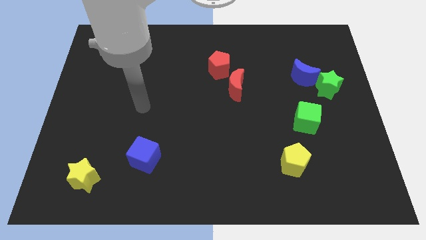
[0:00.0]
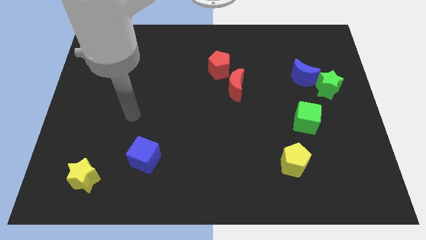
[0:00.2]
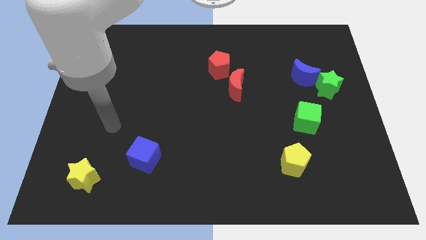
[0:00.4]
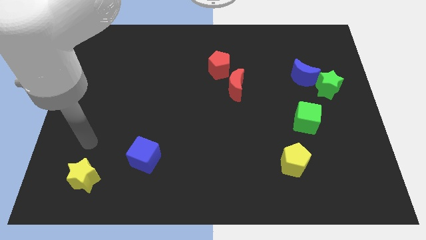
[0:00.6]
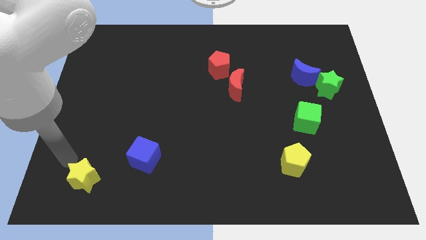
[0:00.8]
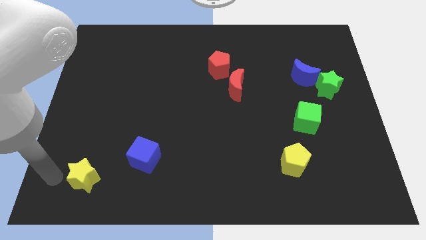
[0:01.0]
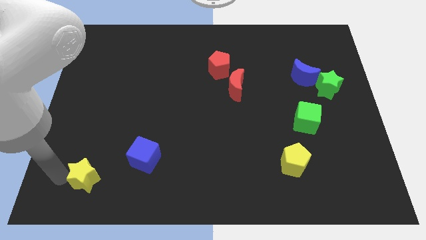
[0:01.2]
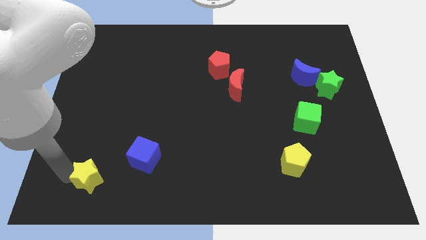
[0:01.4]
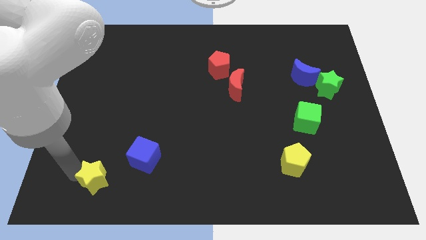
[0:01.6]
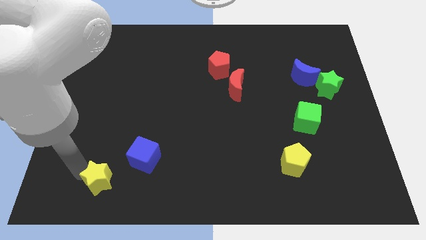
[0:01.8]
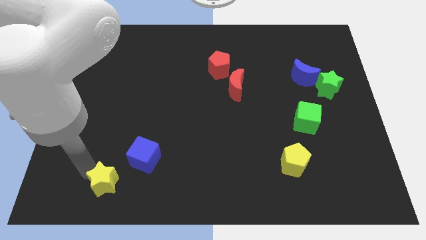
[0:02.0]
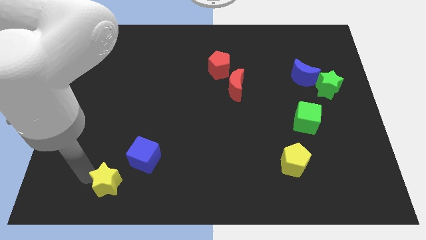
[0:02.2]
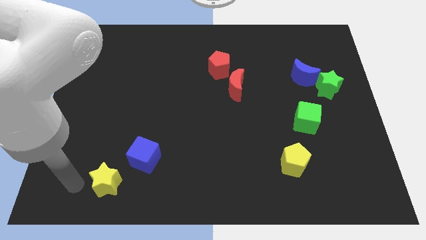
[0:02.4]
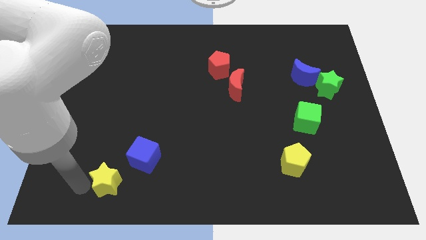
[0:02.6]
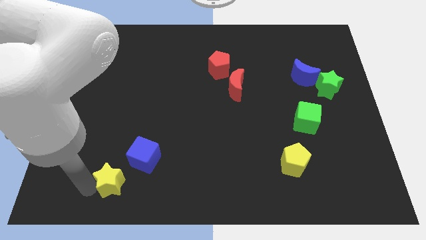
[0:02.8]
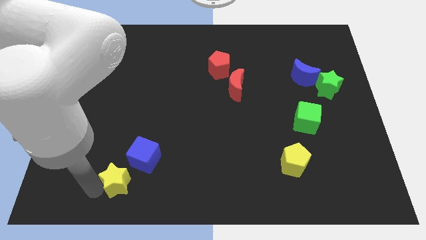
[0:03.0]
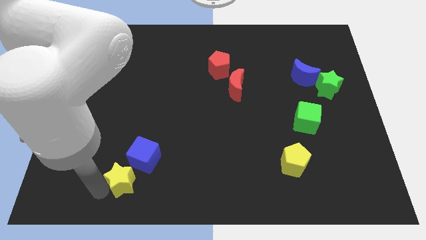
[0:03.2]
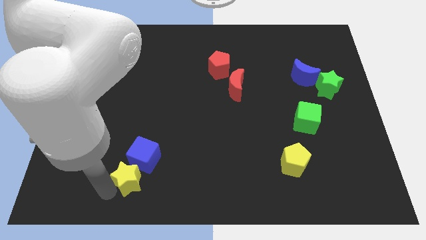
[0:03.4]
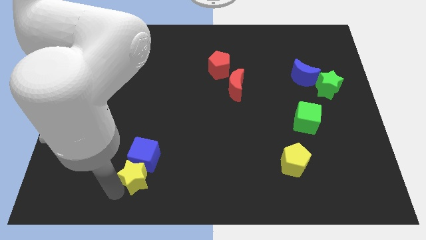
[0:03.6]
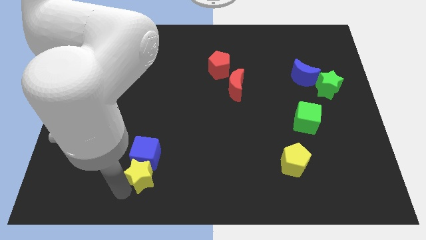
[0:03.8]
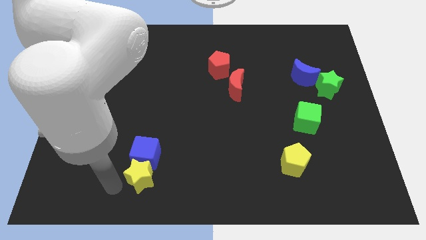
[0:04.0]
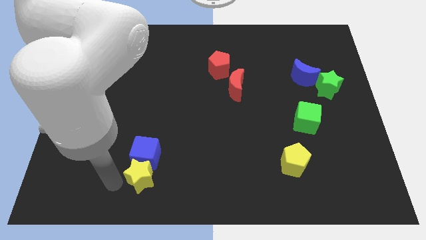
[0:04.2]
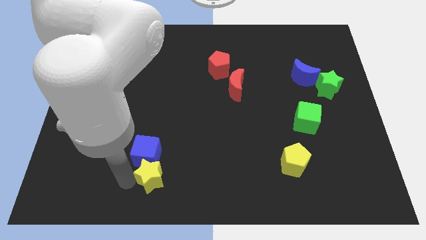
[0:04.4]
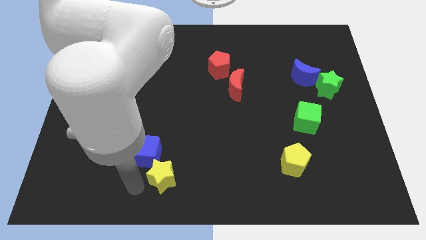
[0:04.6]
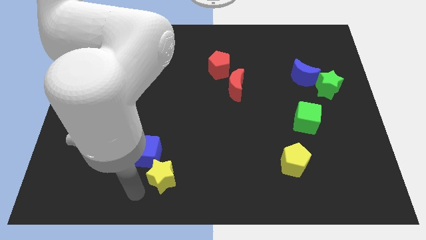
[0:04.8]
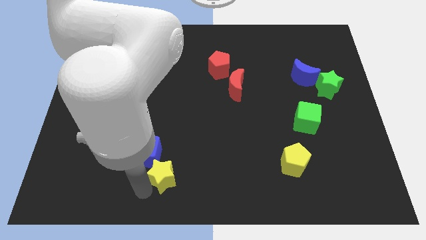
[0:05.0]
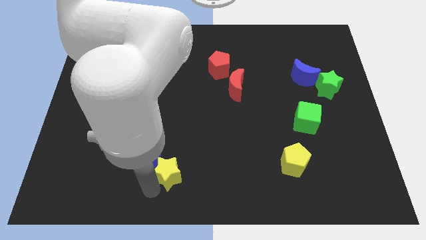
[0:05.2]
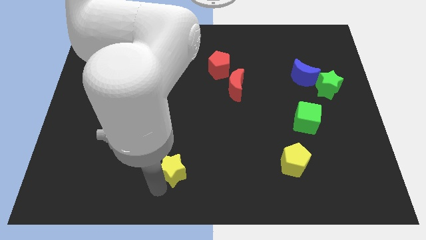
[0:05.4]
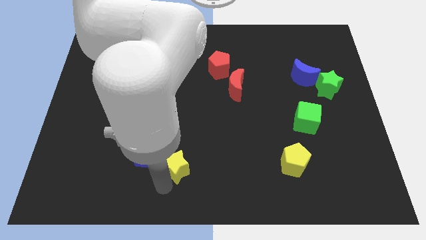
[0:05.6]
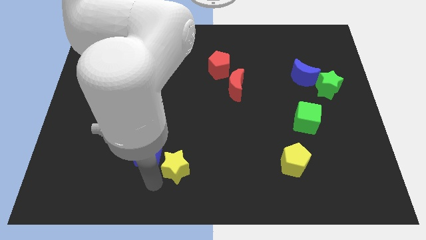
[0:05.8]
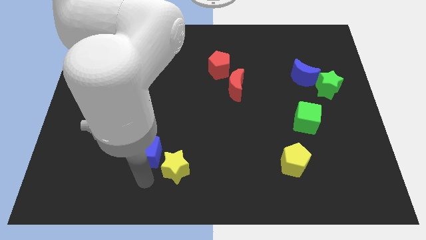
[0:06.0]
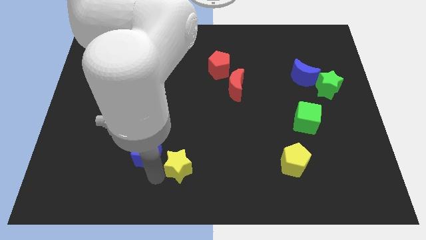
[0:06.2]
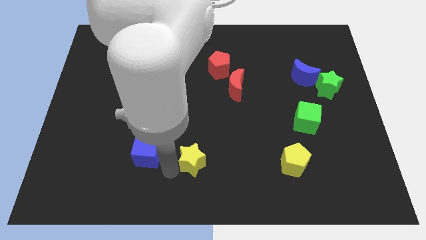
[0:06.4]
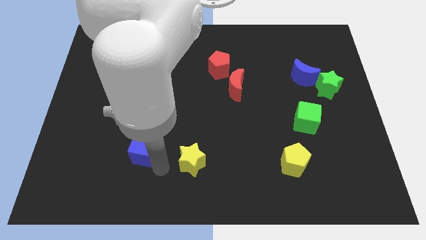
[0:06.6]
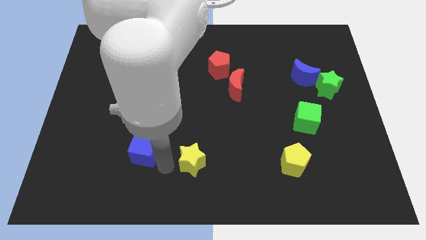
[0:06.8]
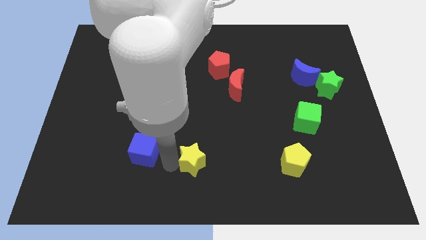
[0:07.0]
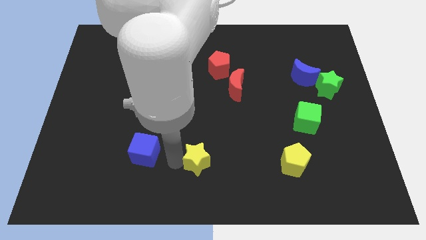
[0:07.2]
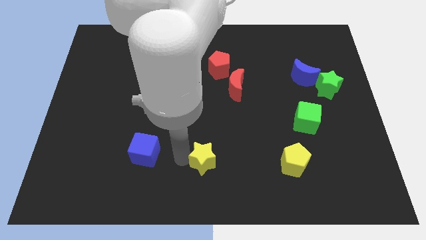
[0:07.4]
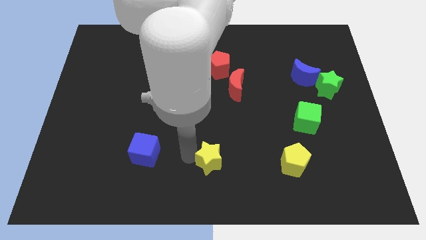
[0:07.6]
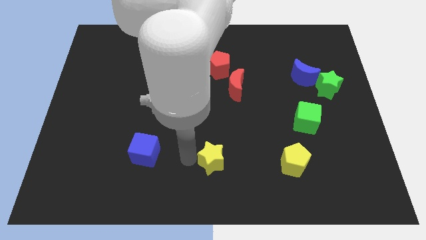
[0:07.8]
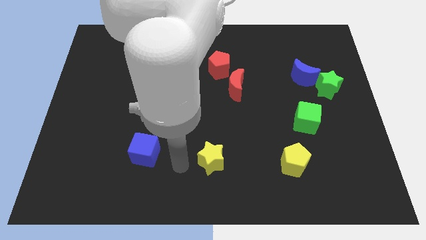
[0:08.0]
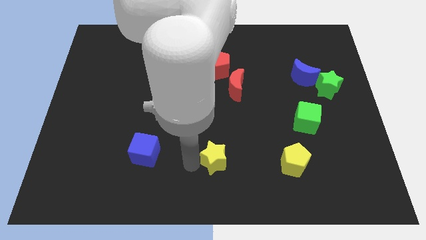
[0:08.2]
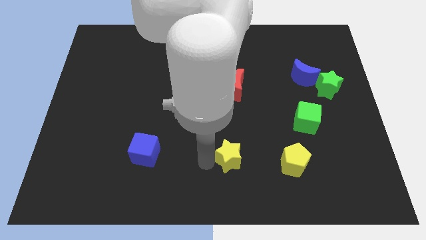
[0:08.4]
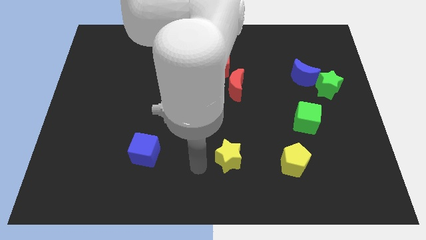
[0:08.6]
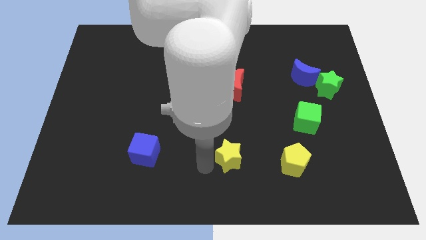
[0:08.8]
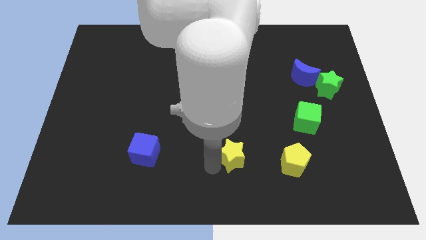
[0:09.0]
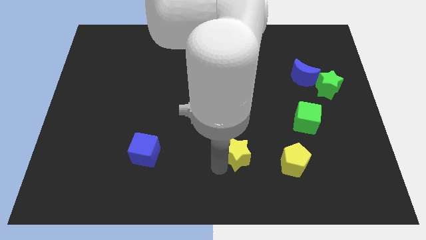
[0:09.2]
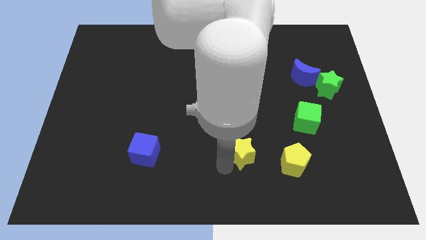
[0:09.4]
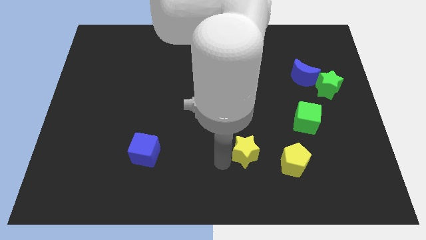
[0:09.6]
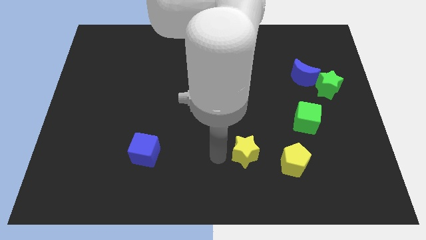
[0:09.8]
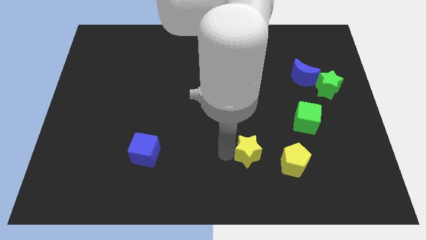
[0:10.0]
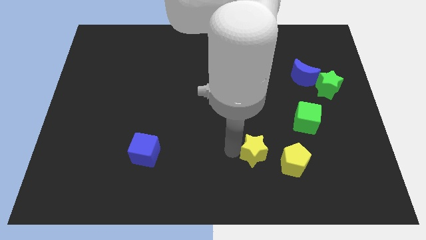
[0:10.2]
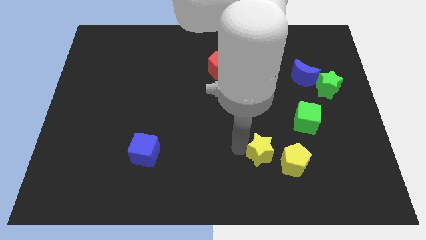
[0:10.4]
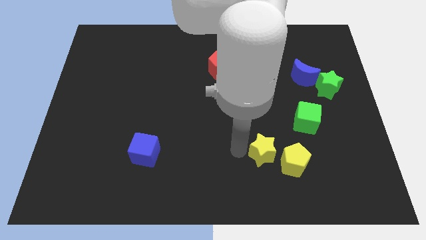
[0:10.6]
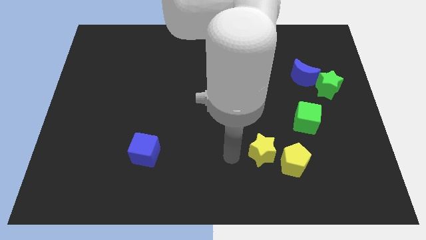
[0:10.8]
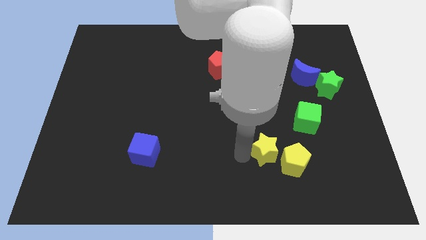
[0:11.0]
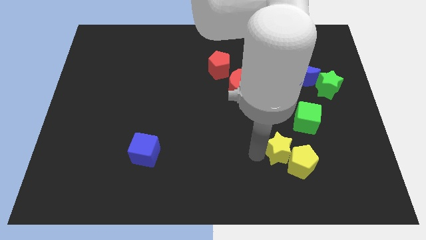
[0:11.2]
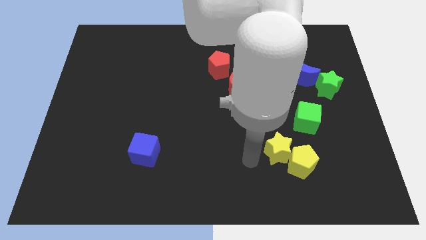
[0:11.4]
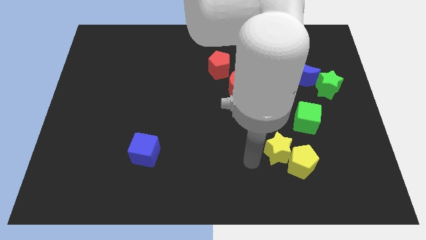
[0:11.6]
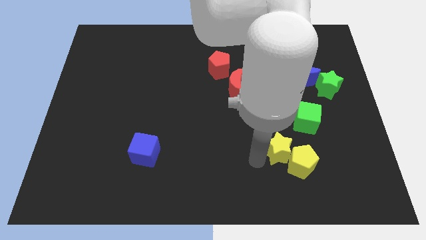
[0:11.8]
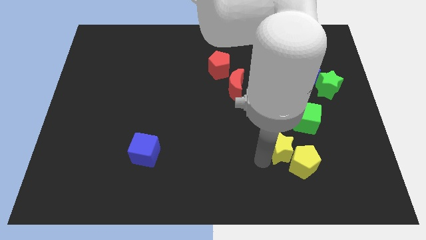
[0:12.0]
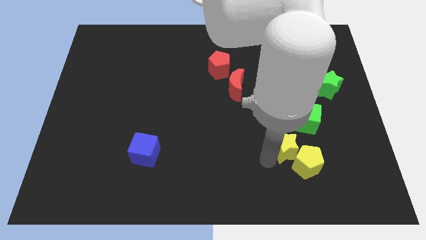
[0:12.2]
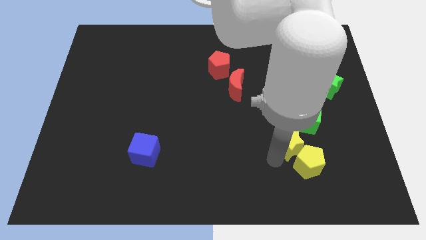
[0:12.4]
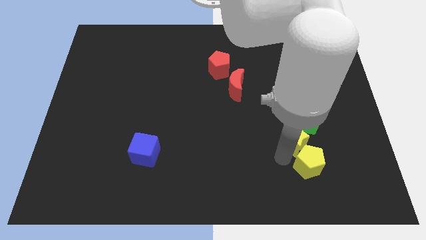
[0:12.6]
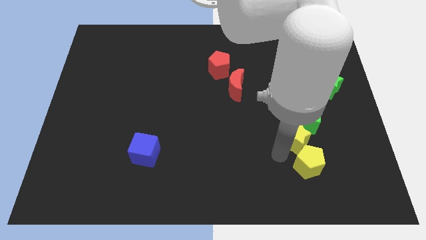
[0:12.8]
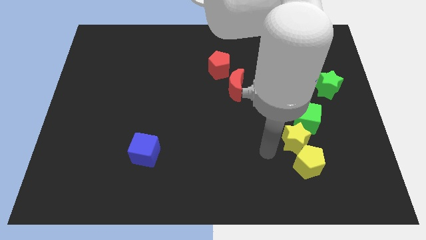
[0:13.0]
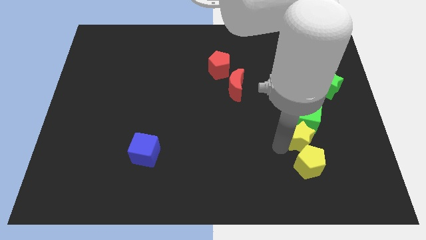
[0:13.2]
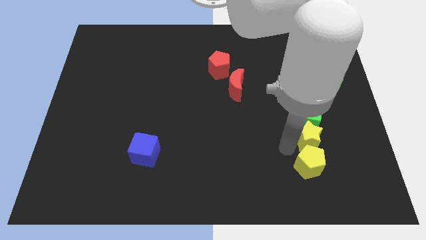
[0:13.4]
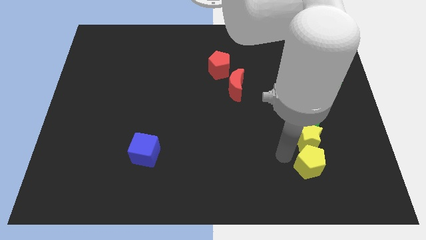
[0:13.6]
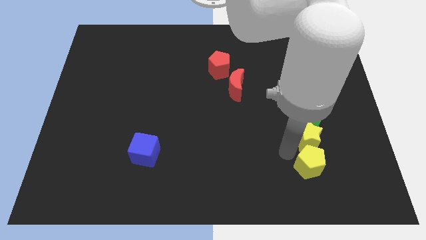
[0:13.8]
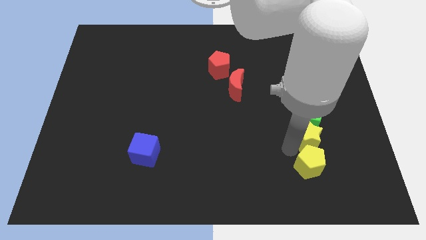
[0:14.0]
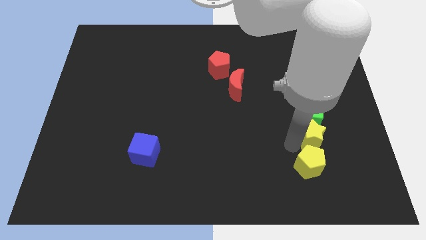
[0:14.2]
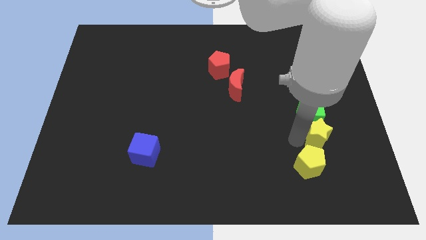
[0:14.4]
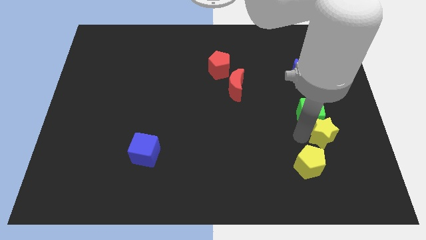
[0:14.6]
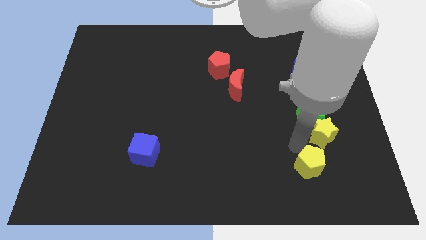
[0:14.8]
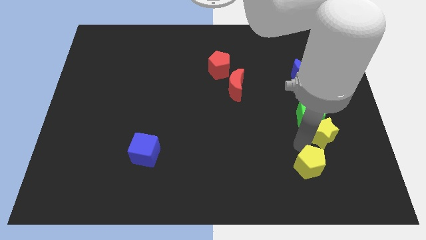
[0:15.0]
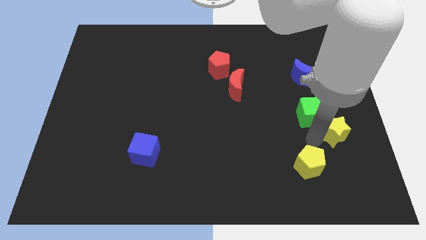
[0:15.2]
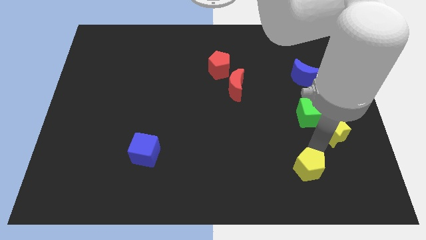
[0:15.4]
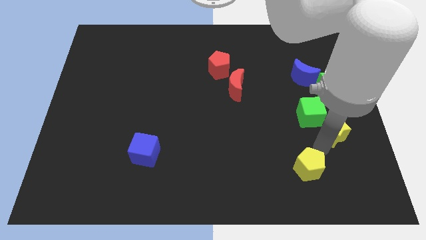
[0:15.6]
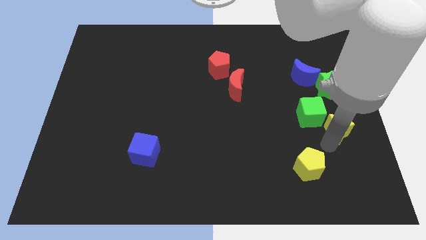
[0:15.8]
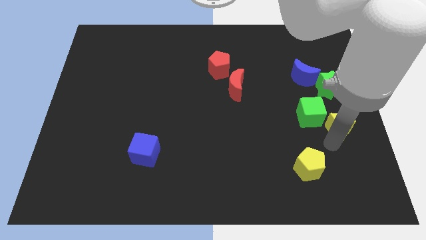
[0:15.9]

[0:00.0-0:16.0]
slide the yellow star to the right side of the board
